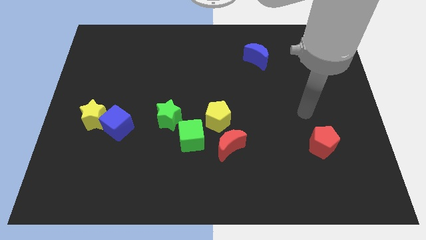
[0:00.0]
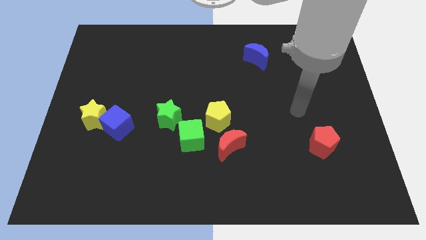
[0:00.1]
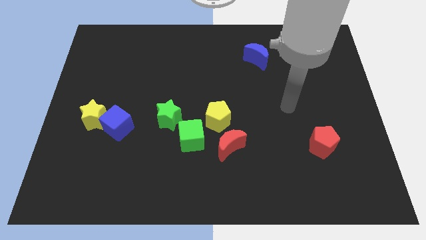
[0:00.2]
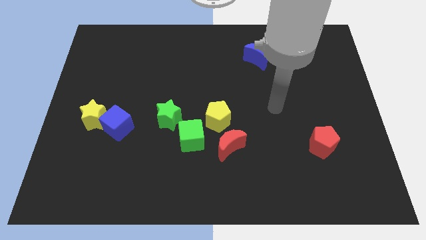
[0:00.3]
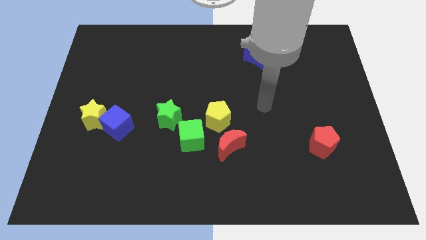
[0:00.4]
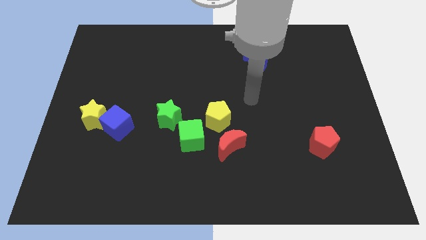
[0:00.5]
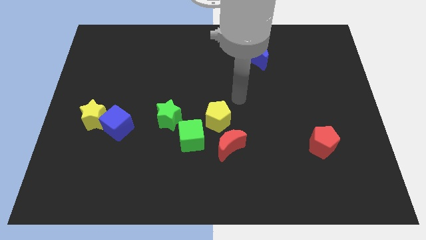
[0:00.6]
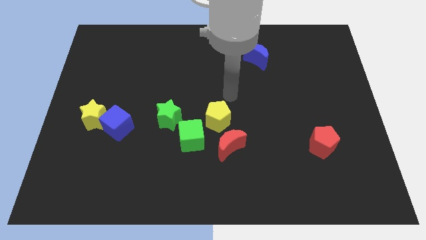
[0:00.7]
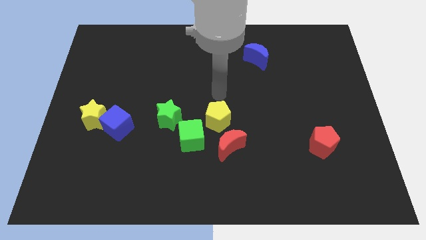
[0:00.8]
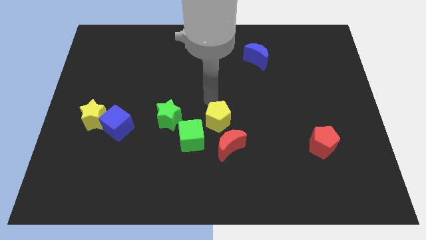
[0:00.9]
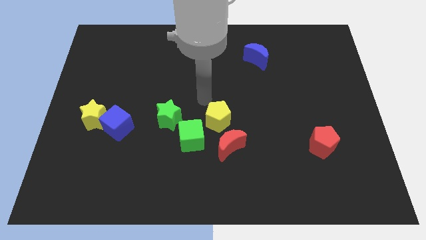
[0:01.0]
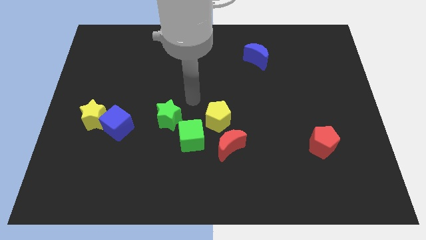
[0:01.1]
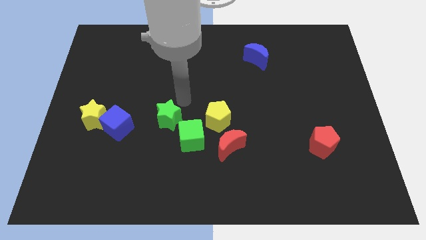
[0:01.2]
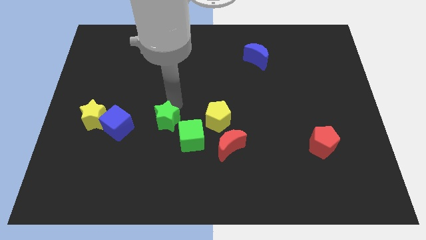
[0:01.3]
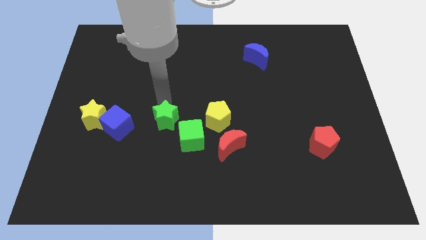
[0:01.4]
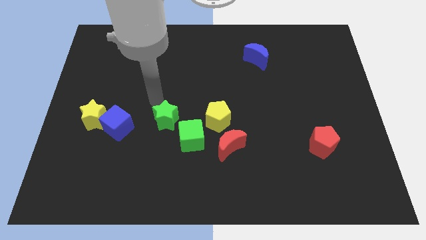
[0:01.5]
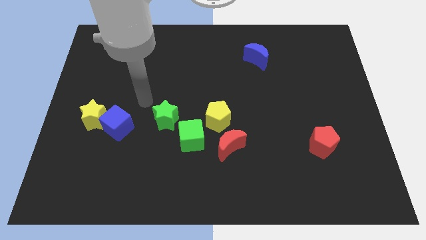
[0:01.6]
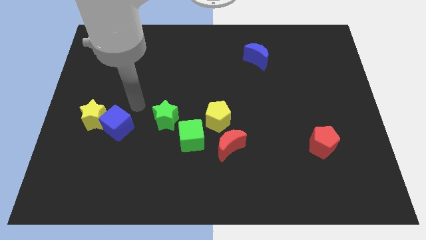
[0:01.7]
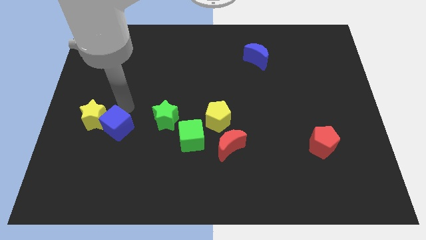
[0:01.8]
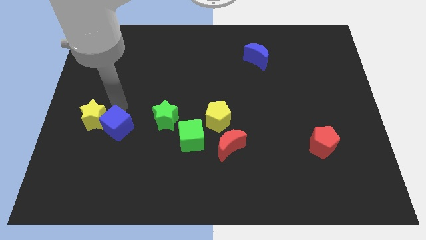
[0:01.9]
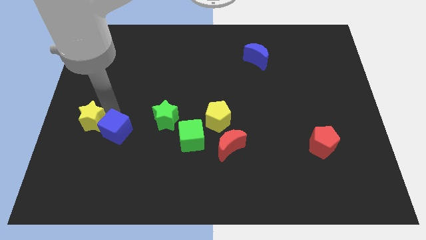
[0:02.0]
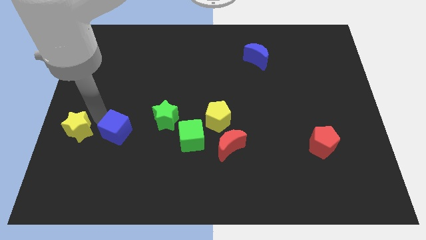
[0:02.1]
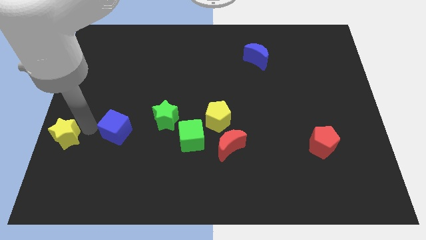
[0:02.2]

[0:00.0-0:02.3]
move the blue cube away from the yellow star

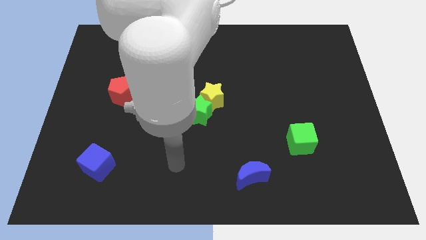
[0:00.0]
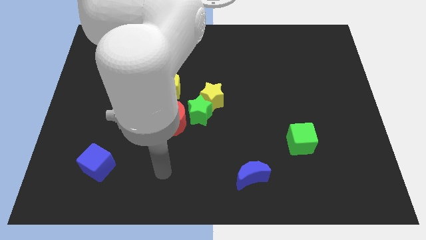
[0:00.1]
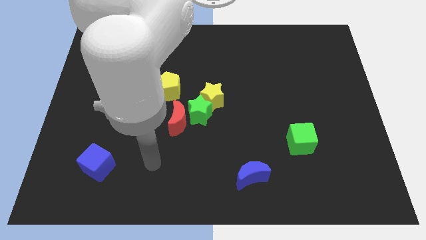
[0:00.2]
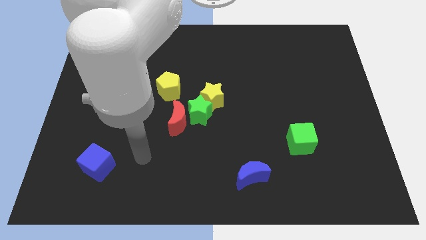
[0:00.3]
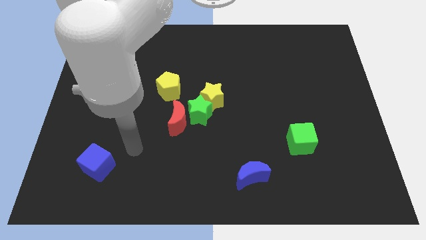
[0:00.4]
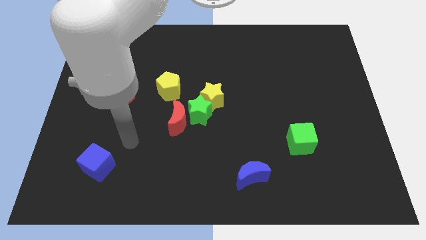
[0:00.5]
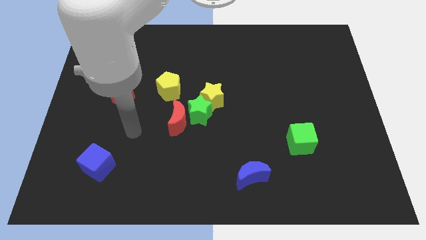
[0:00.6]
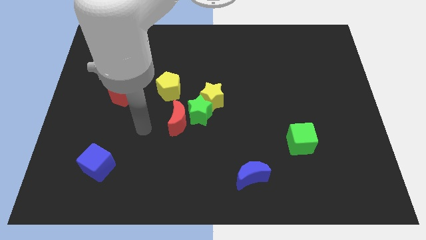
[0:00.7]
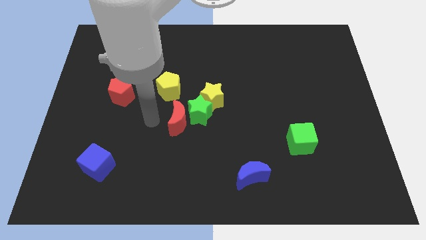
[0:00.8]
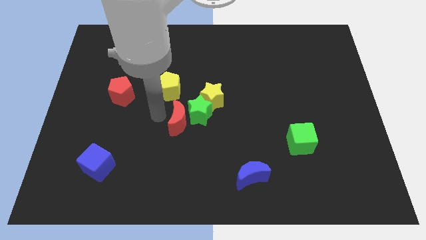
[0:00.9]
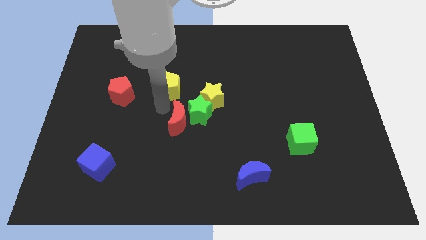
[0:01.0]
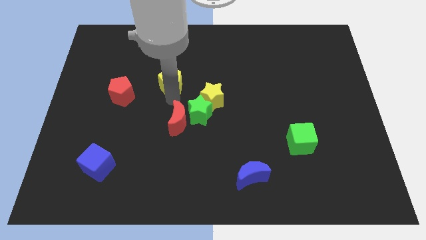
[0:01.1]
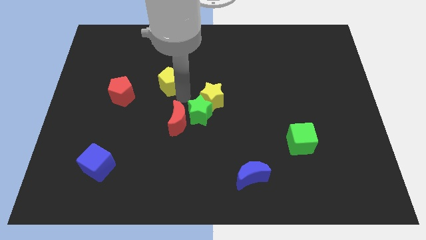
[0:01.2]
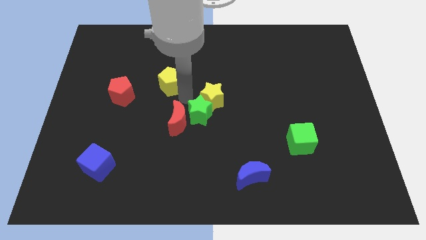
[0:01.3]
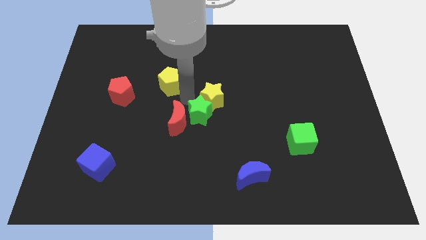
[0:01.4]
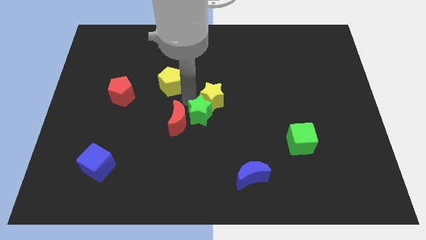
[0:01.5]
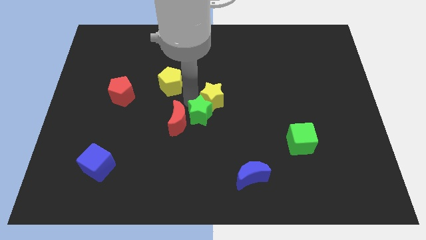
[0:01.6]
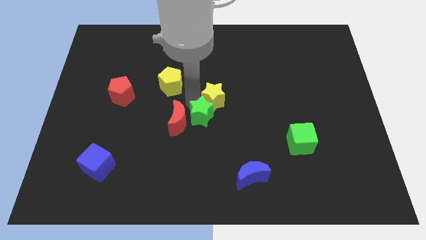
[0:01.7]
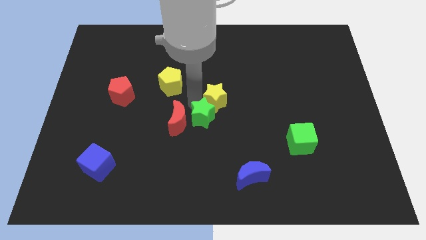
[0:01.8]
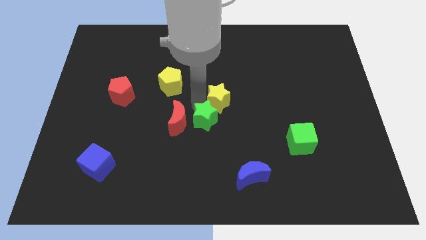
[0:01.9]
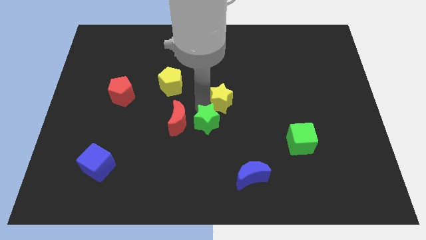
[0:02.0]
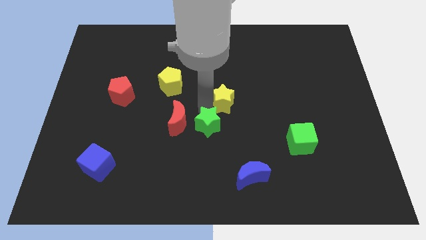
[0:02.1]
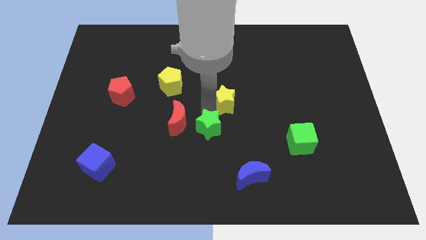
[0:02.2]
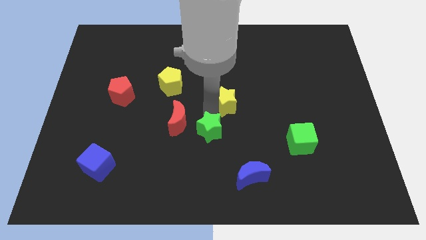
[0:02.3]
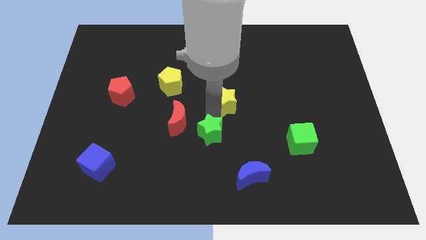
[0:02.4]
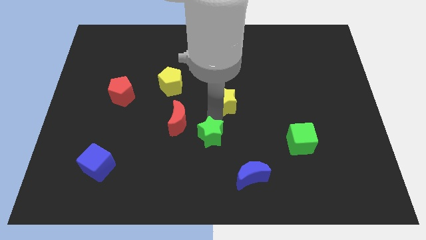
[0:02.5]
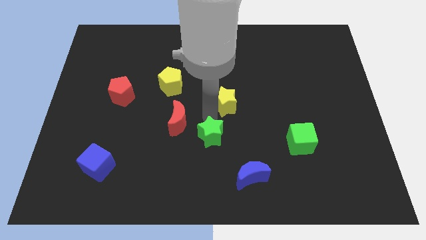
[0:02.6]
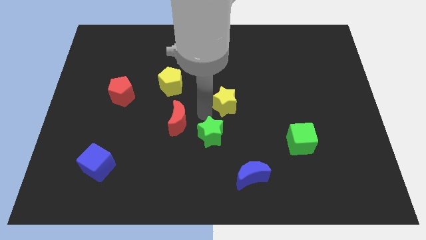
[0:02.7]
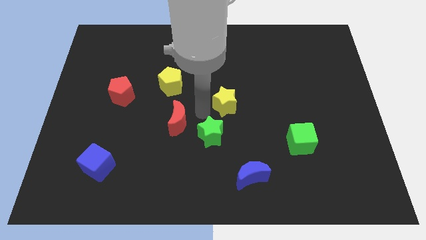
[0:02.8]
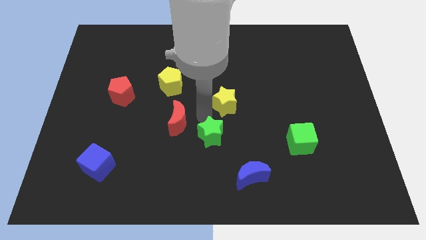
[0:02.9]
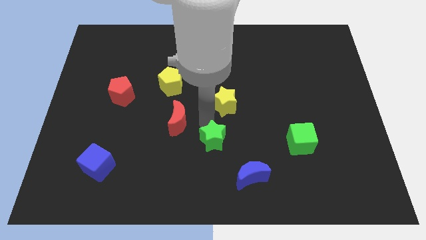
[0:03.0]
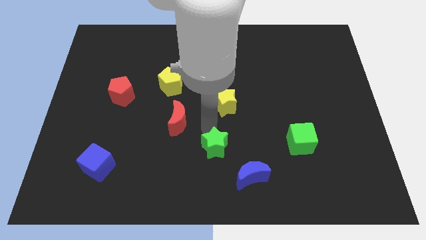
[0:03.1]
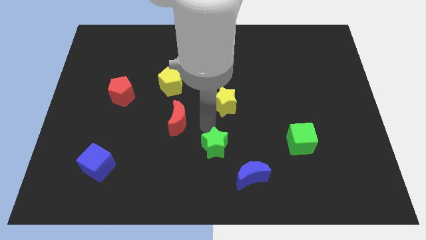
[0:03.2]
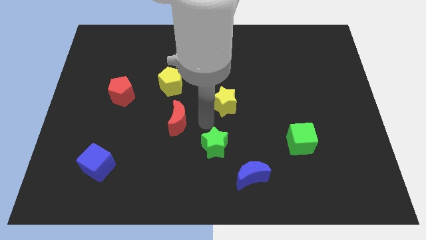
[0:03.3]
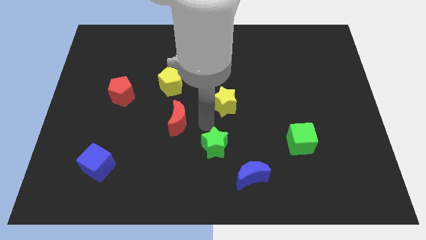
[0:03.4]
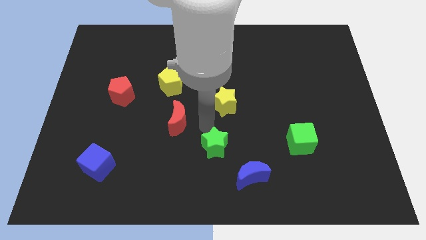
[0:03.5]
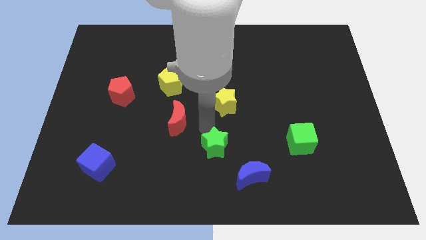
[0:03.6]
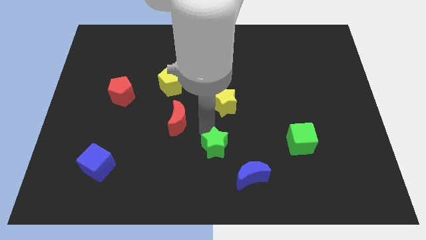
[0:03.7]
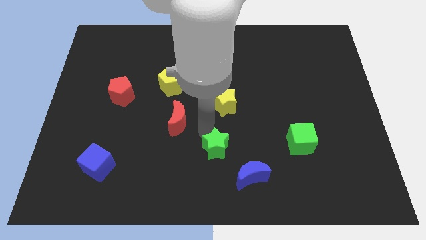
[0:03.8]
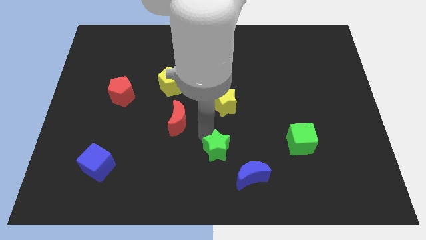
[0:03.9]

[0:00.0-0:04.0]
separate the green star from the red moon and yellow star

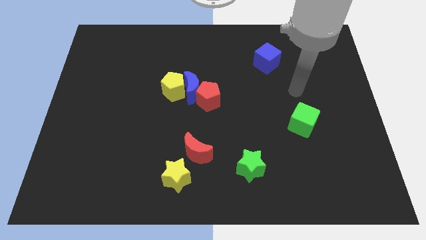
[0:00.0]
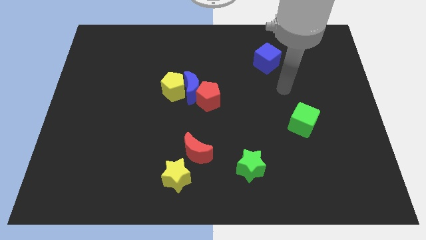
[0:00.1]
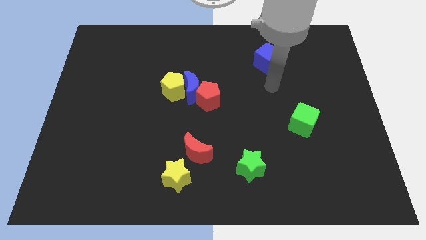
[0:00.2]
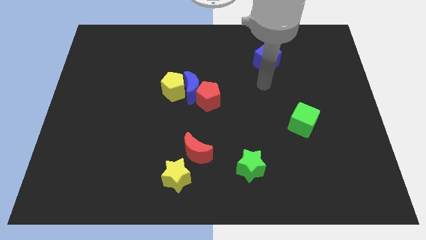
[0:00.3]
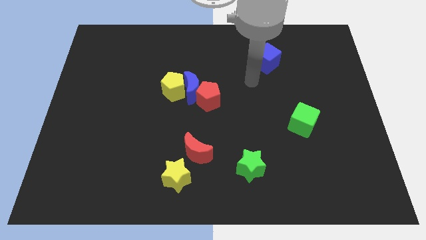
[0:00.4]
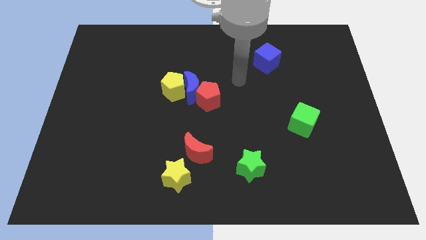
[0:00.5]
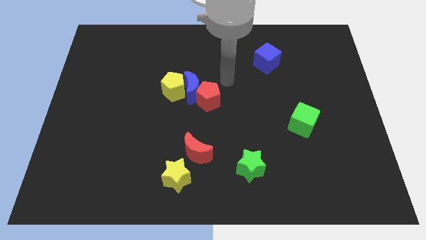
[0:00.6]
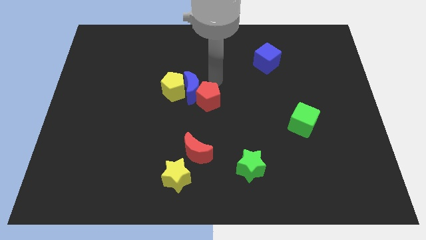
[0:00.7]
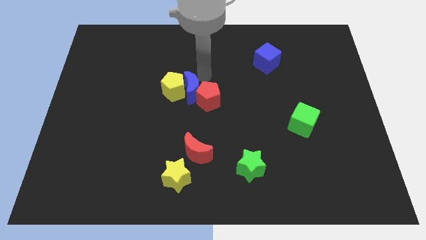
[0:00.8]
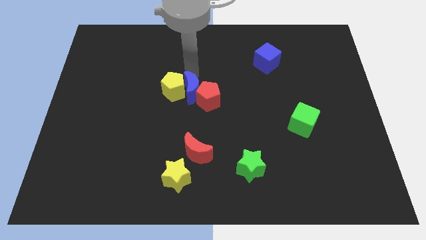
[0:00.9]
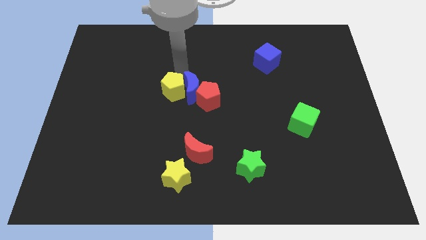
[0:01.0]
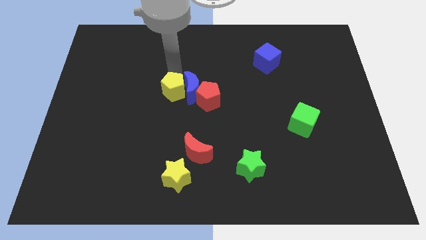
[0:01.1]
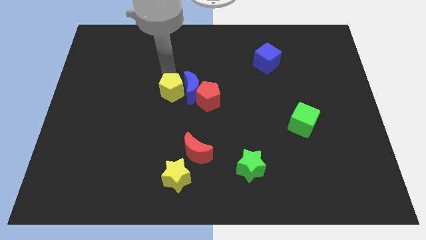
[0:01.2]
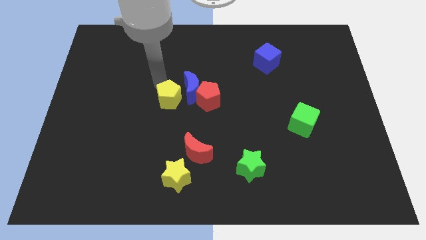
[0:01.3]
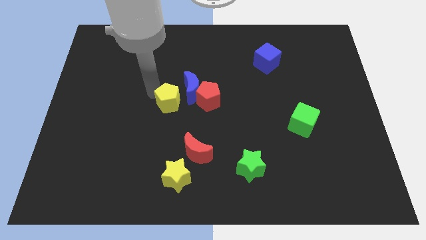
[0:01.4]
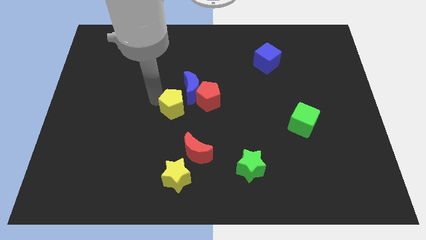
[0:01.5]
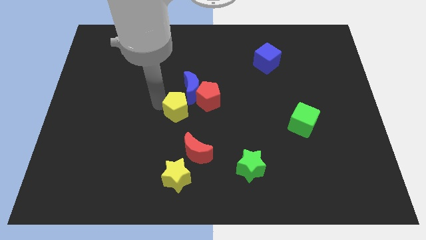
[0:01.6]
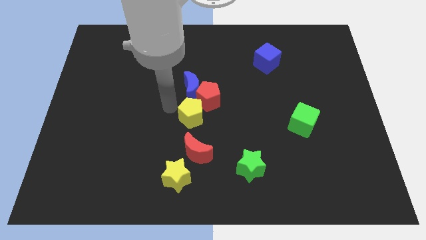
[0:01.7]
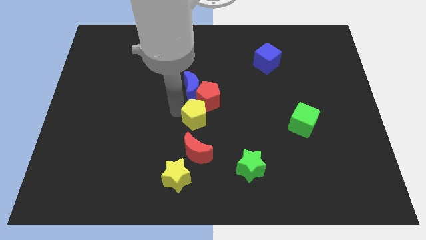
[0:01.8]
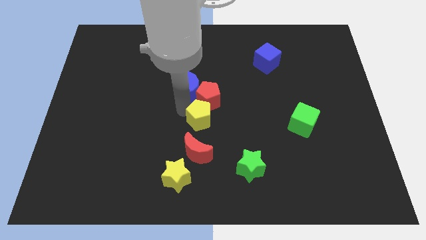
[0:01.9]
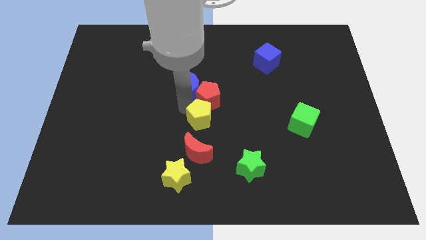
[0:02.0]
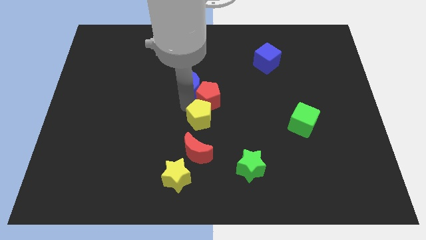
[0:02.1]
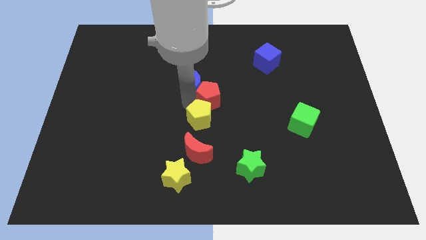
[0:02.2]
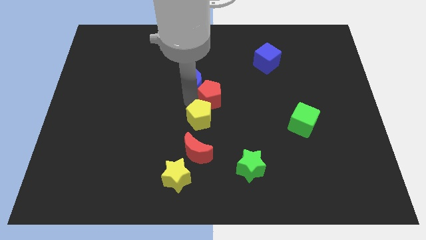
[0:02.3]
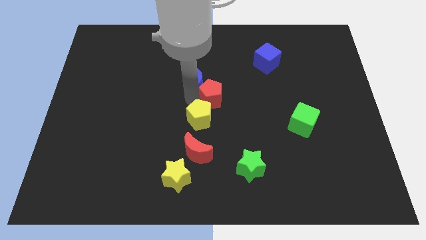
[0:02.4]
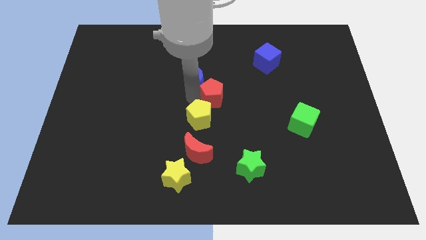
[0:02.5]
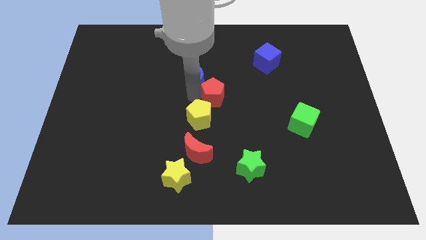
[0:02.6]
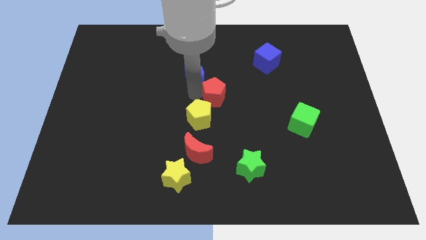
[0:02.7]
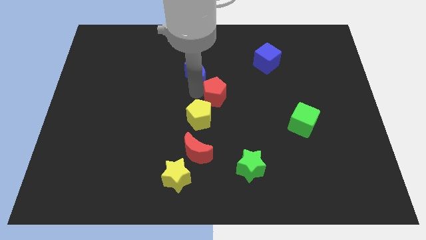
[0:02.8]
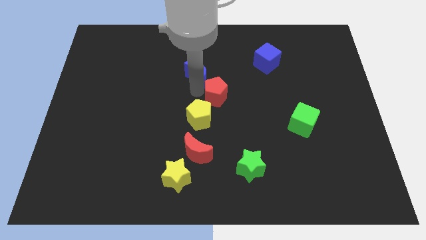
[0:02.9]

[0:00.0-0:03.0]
move the blue moon away from the yellow pentagon and red pentagon
